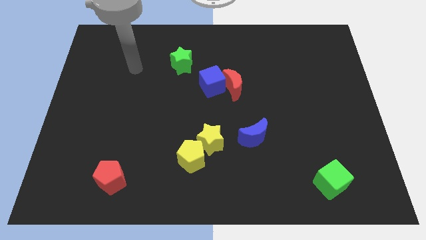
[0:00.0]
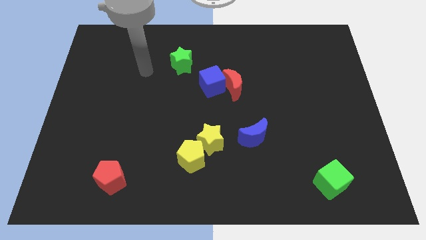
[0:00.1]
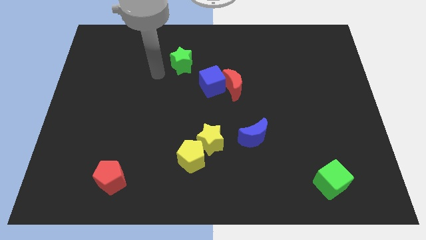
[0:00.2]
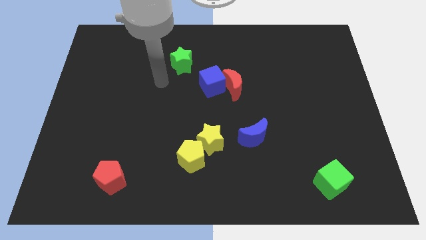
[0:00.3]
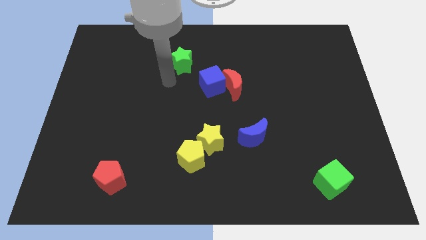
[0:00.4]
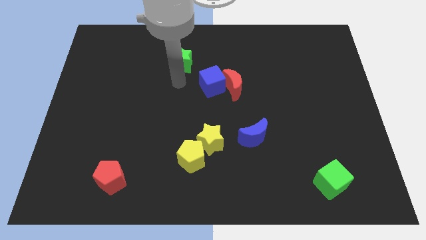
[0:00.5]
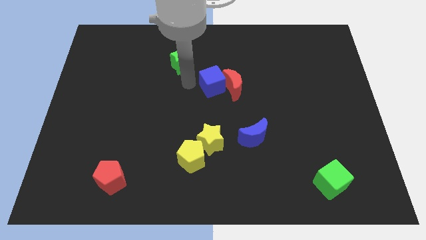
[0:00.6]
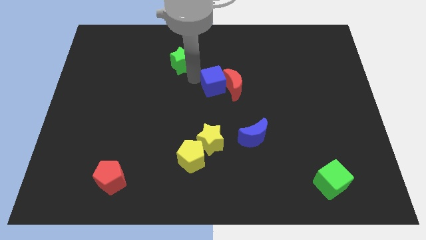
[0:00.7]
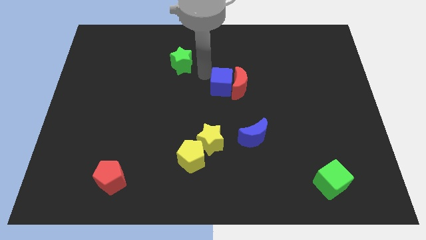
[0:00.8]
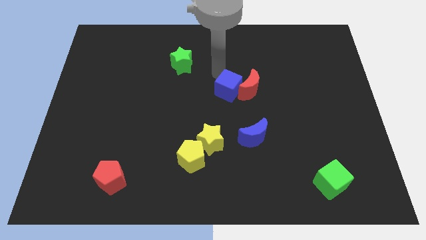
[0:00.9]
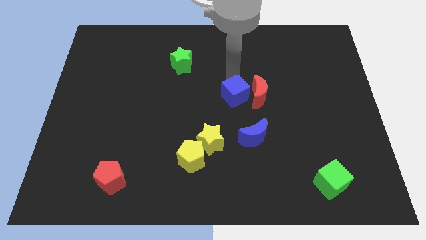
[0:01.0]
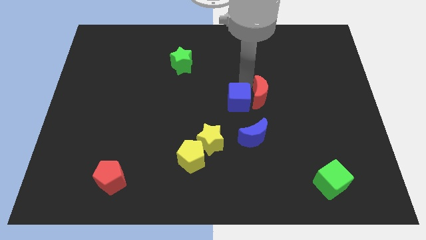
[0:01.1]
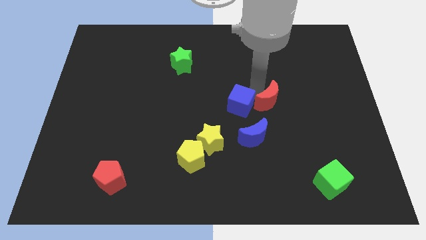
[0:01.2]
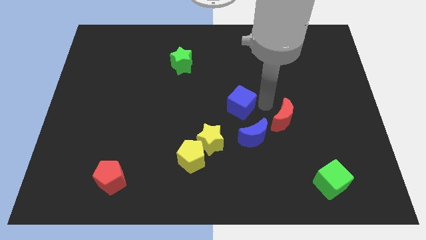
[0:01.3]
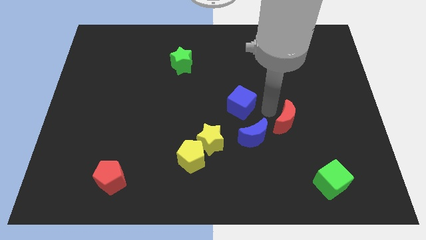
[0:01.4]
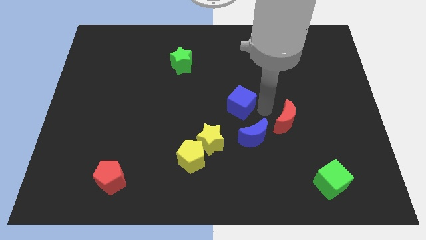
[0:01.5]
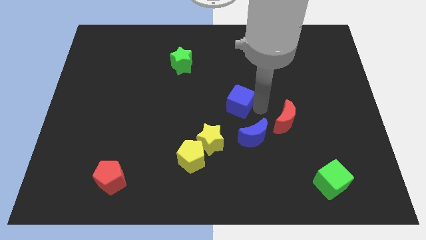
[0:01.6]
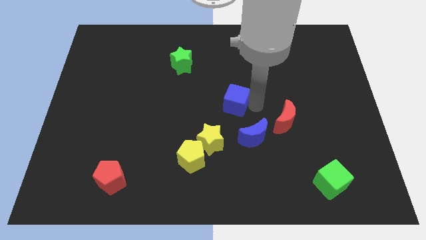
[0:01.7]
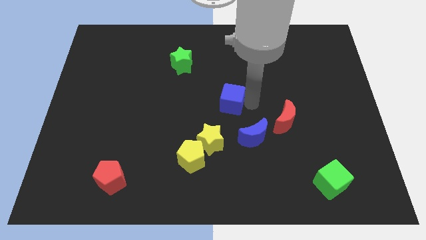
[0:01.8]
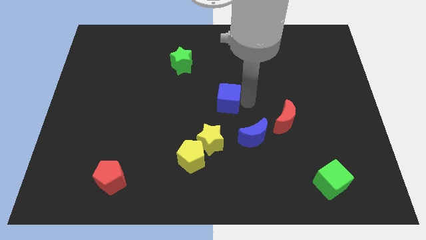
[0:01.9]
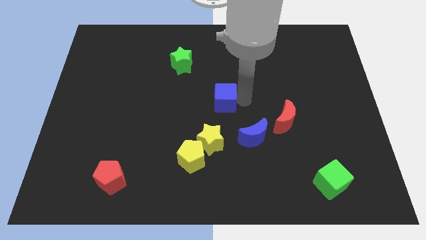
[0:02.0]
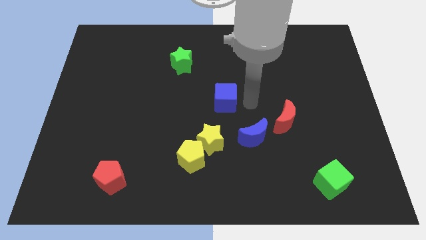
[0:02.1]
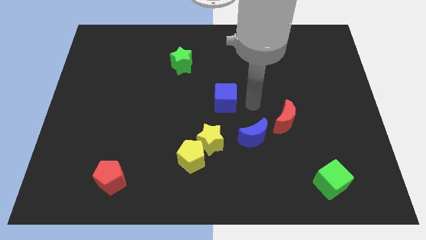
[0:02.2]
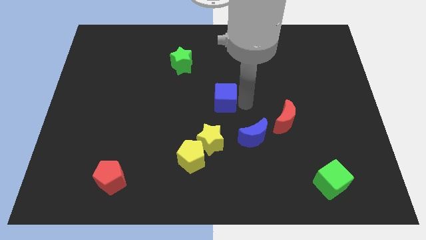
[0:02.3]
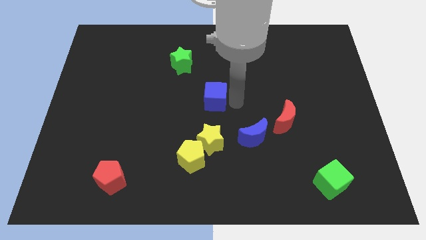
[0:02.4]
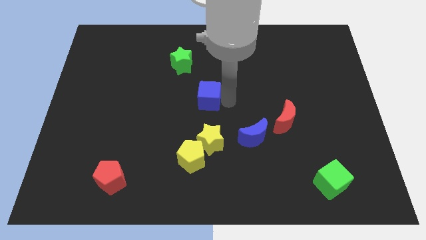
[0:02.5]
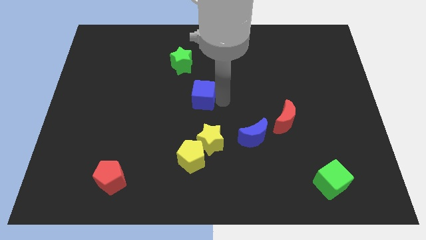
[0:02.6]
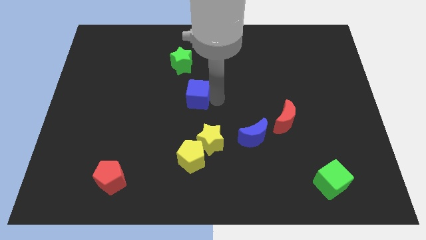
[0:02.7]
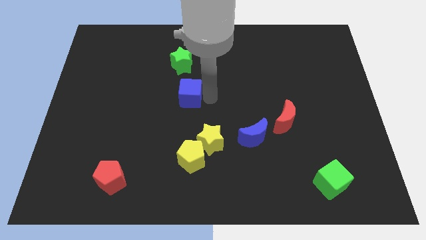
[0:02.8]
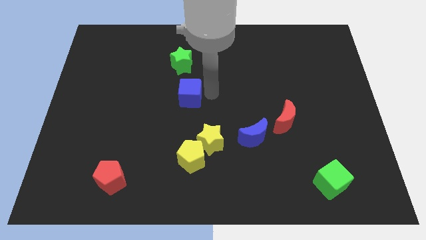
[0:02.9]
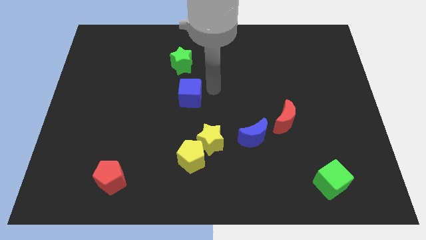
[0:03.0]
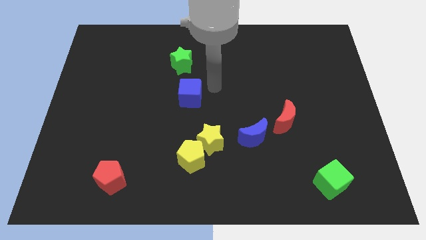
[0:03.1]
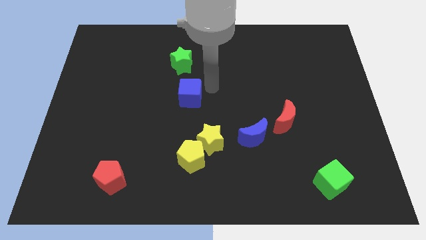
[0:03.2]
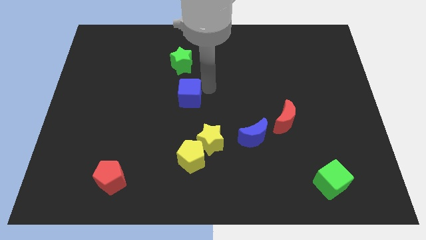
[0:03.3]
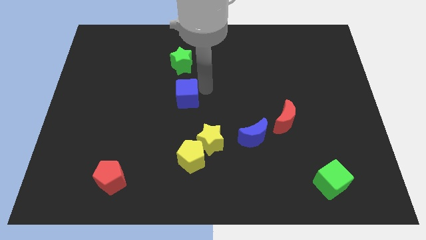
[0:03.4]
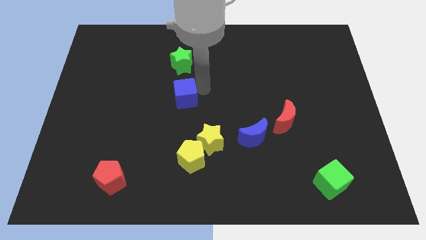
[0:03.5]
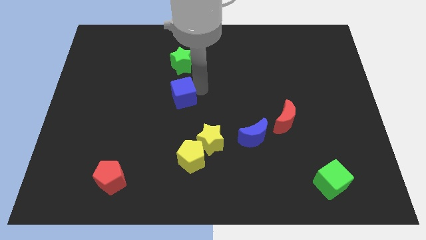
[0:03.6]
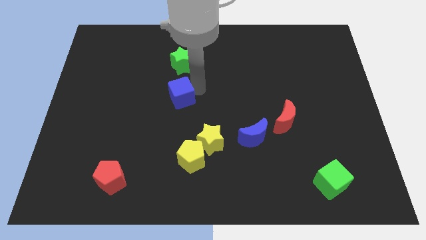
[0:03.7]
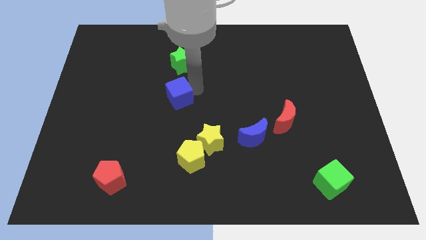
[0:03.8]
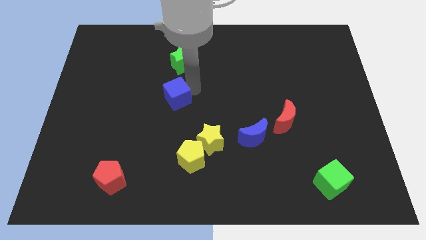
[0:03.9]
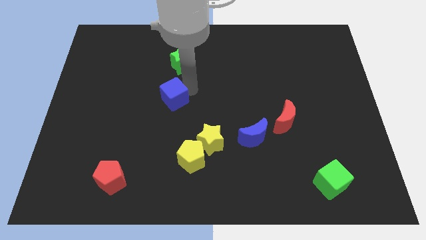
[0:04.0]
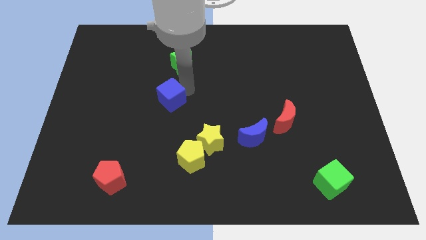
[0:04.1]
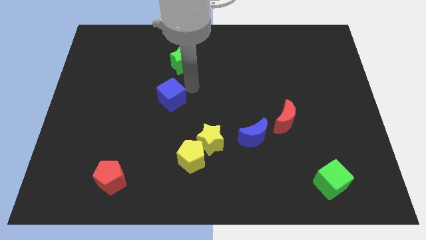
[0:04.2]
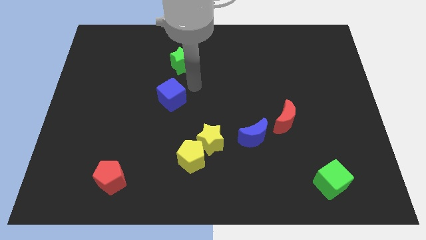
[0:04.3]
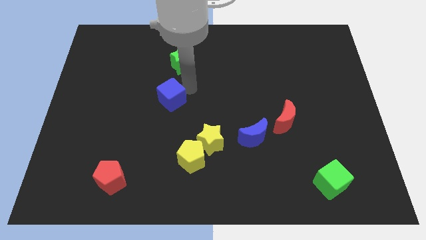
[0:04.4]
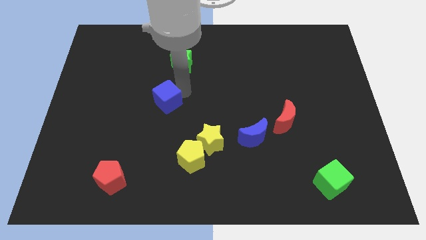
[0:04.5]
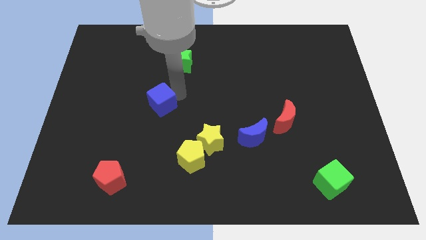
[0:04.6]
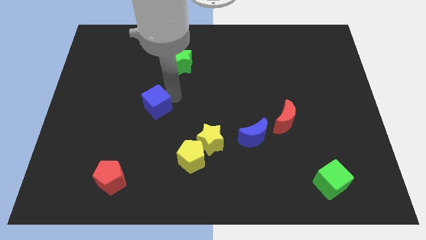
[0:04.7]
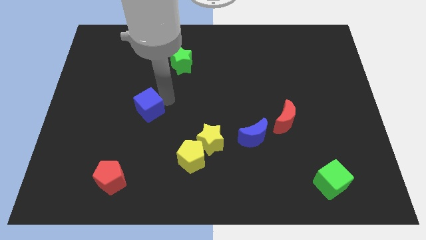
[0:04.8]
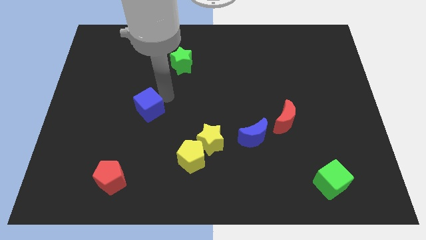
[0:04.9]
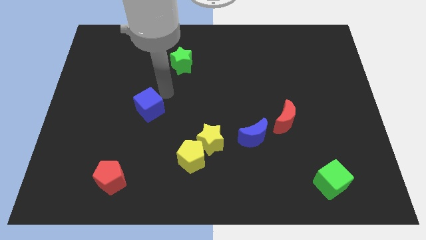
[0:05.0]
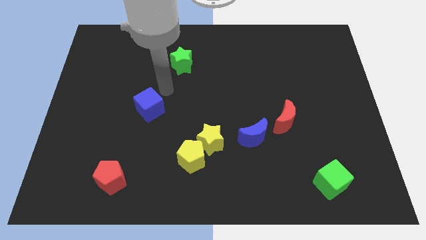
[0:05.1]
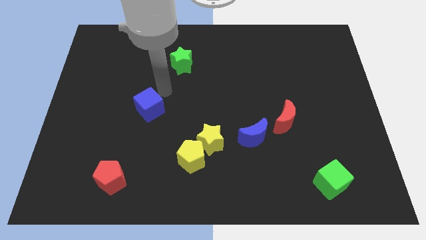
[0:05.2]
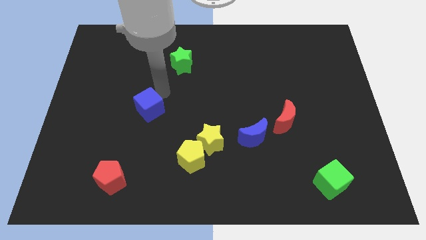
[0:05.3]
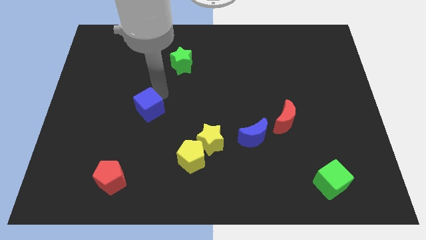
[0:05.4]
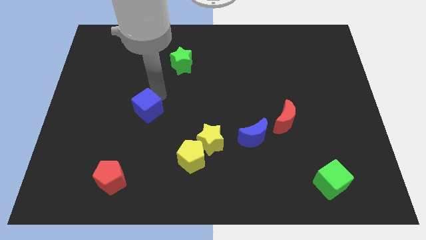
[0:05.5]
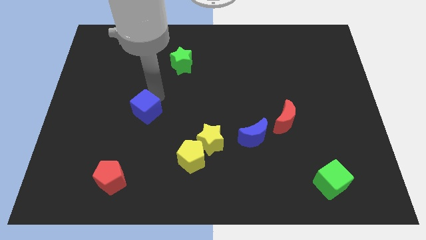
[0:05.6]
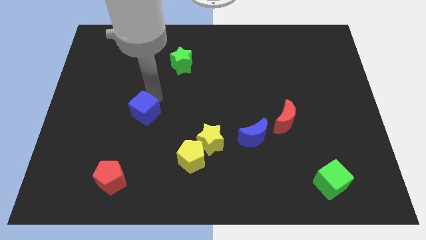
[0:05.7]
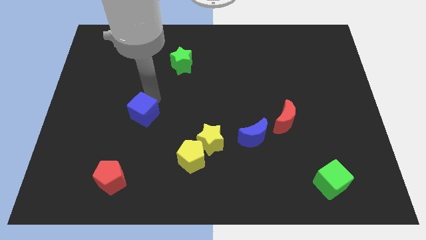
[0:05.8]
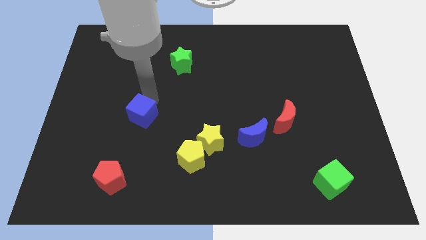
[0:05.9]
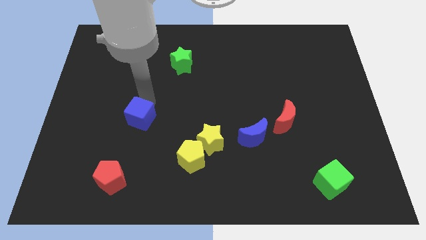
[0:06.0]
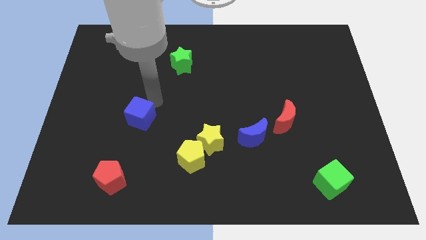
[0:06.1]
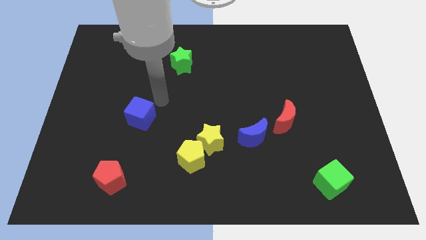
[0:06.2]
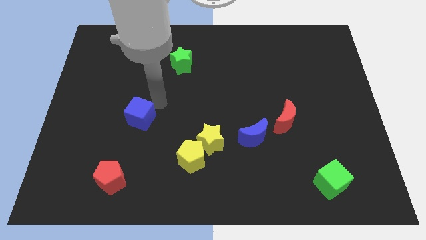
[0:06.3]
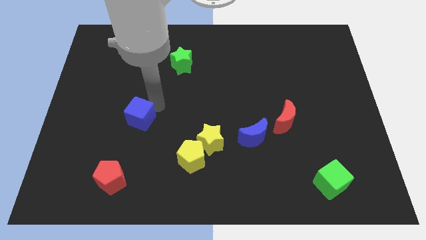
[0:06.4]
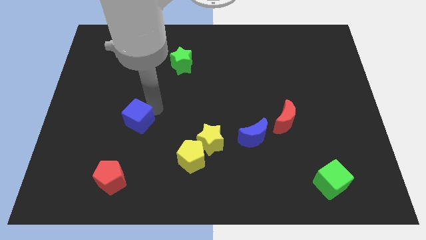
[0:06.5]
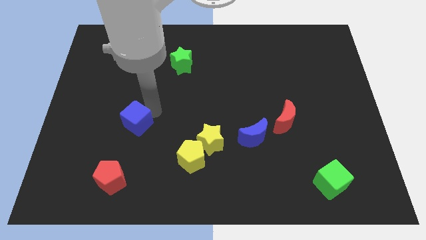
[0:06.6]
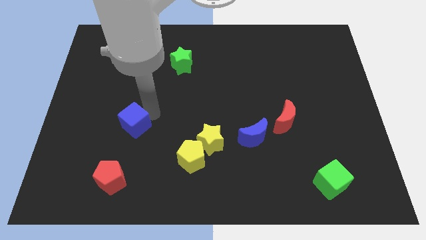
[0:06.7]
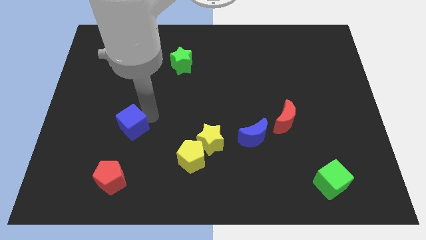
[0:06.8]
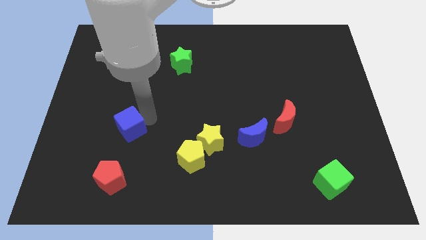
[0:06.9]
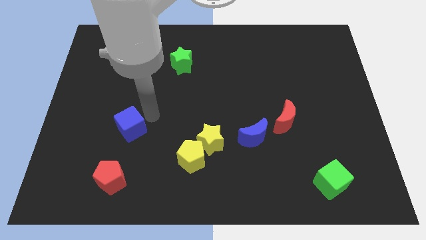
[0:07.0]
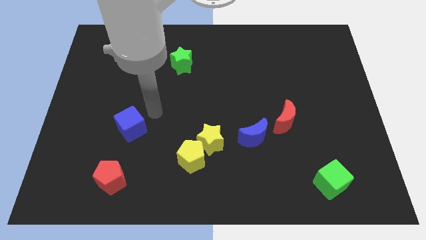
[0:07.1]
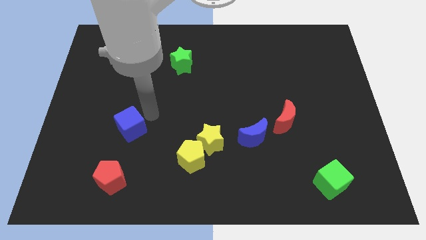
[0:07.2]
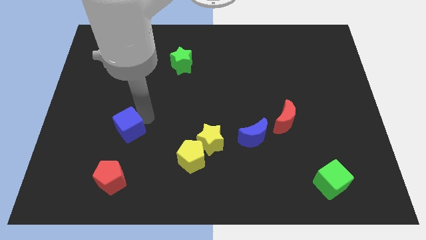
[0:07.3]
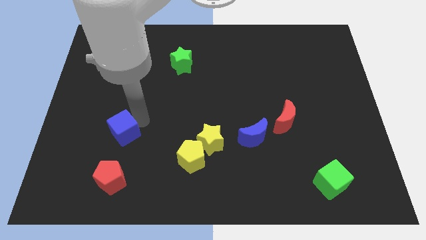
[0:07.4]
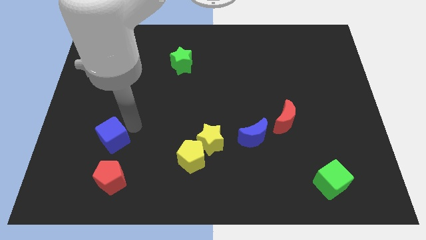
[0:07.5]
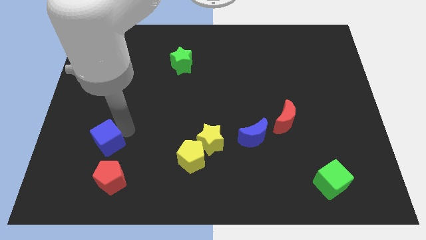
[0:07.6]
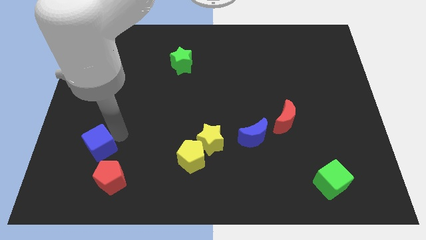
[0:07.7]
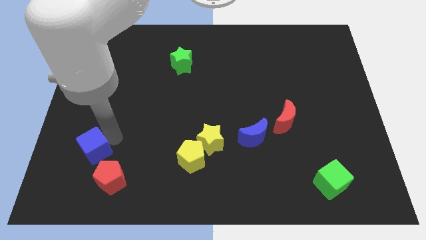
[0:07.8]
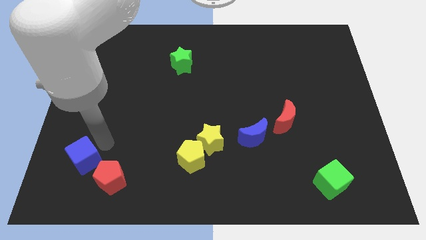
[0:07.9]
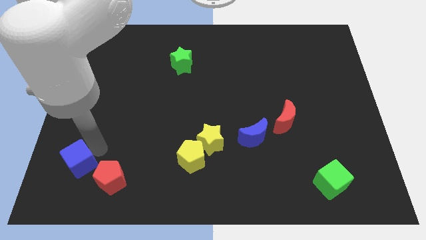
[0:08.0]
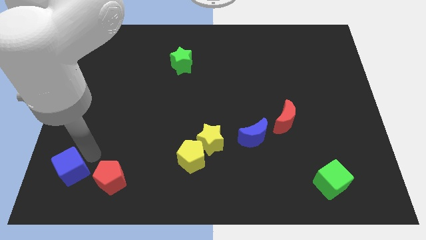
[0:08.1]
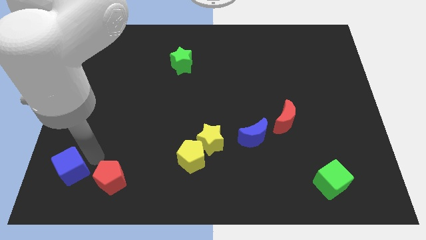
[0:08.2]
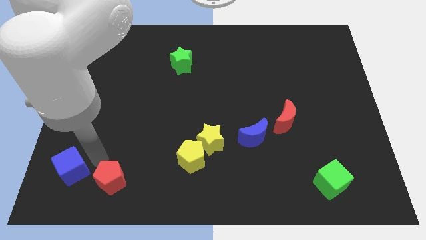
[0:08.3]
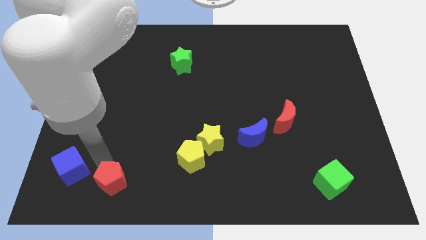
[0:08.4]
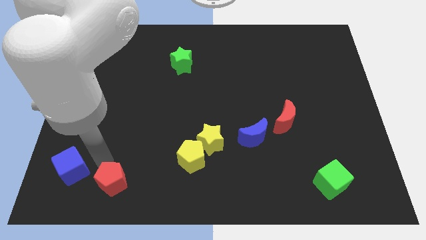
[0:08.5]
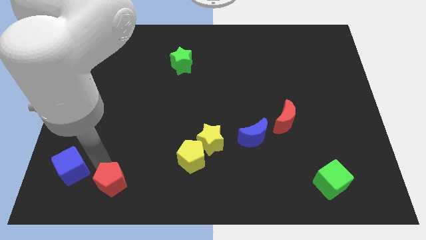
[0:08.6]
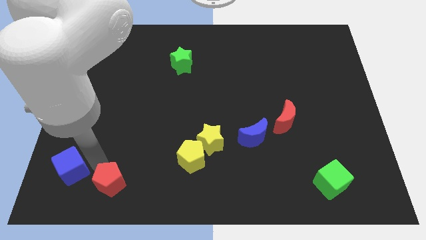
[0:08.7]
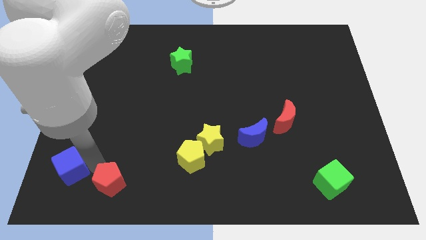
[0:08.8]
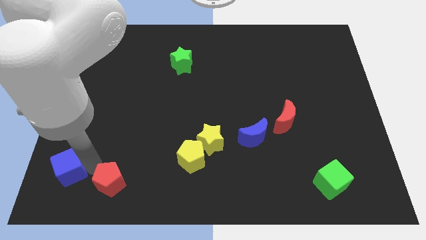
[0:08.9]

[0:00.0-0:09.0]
move the blue cube to the lower left corner
